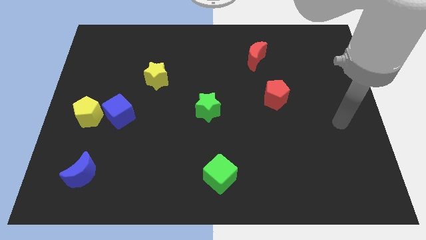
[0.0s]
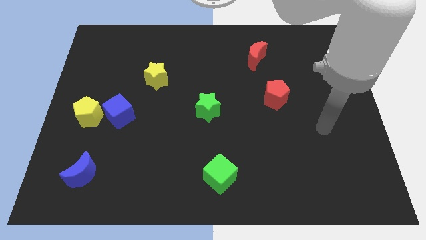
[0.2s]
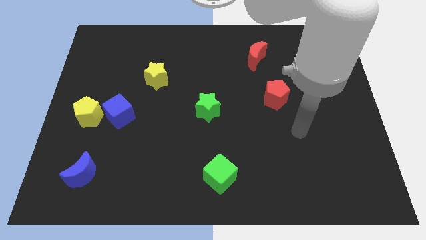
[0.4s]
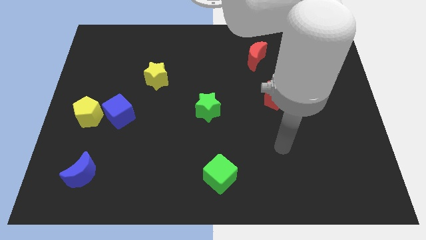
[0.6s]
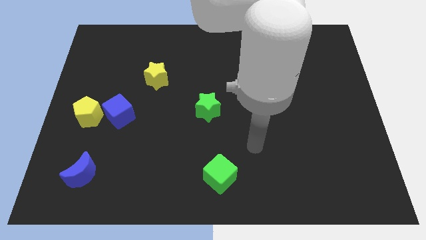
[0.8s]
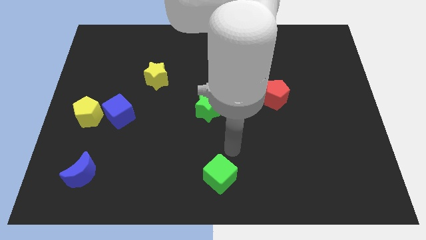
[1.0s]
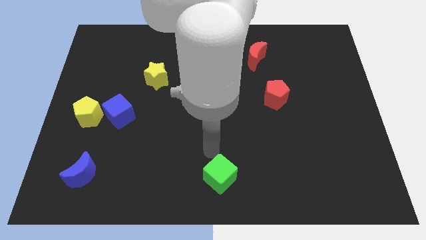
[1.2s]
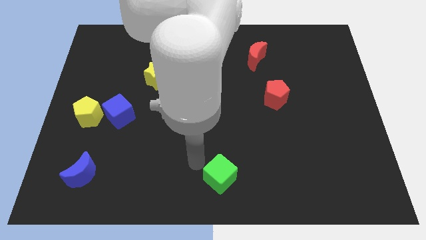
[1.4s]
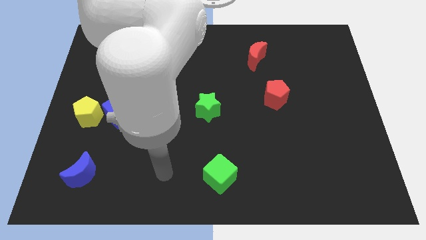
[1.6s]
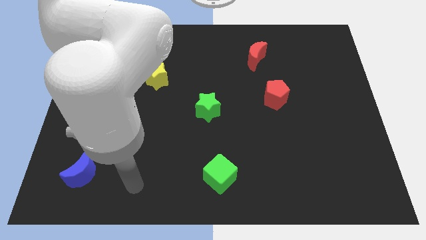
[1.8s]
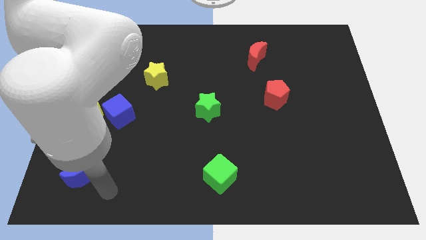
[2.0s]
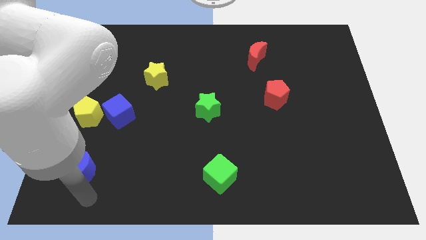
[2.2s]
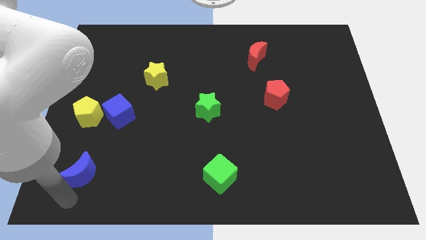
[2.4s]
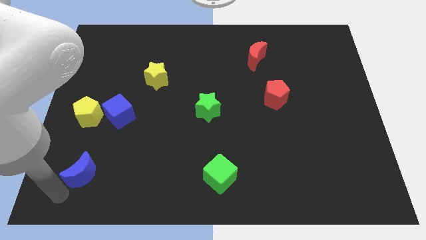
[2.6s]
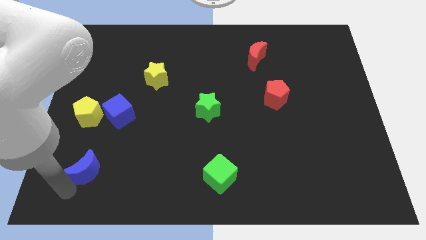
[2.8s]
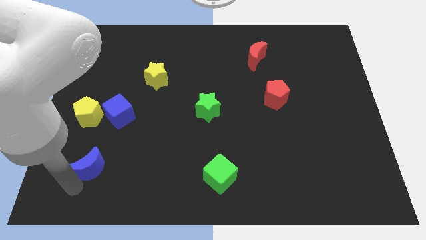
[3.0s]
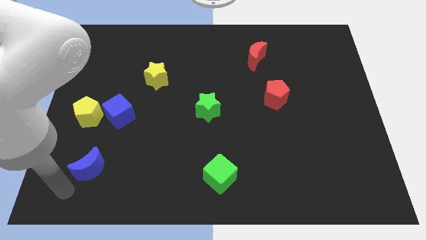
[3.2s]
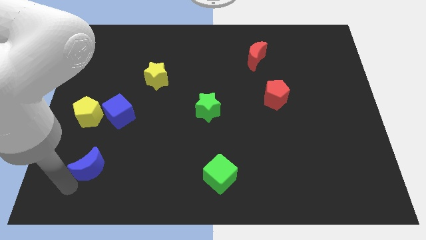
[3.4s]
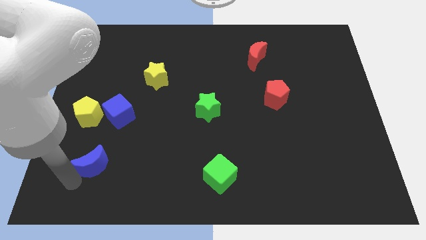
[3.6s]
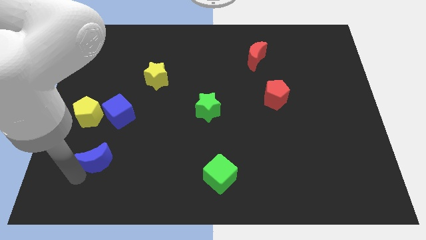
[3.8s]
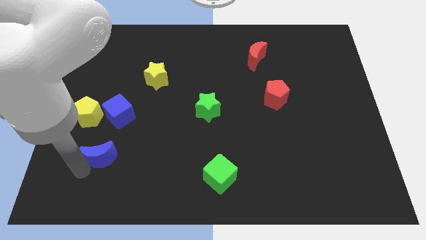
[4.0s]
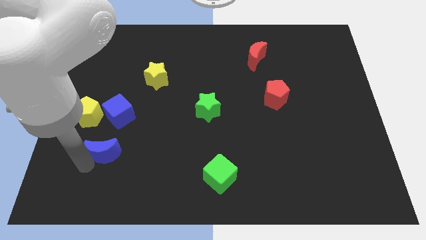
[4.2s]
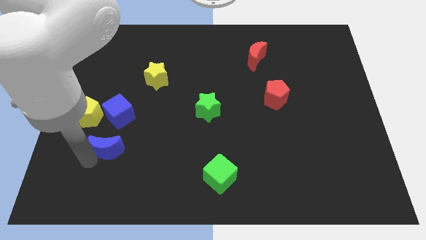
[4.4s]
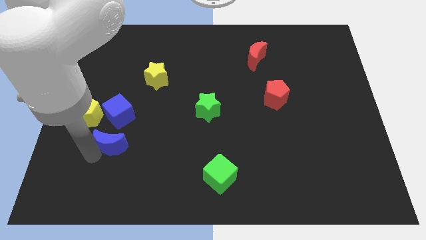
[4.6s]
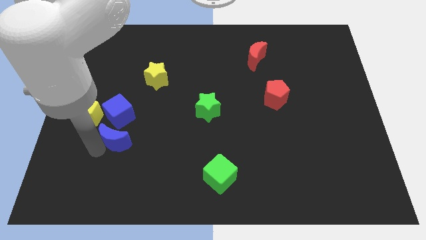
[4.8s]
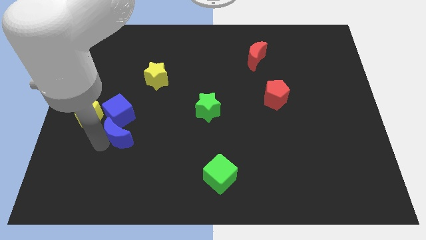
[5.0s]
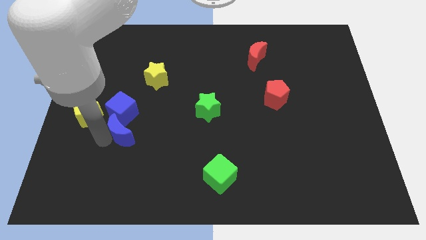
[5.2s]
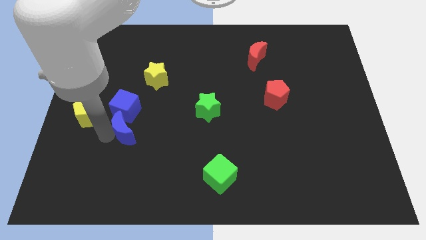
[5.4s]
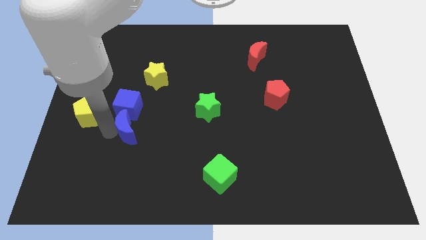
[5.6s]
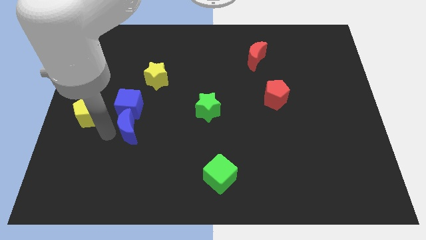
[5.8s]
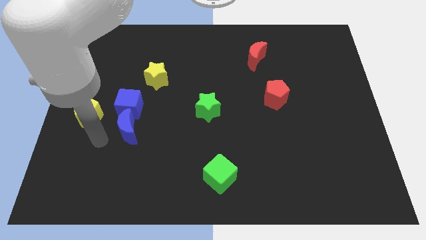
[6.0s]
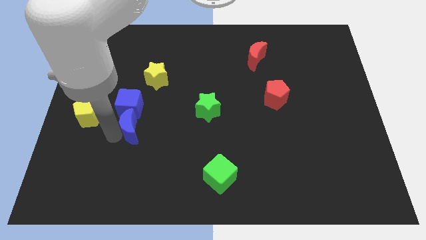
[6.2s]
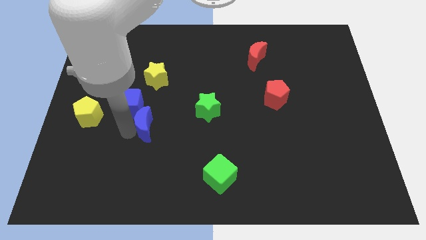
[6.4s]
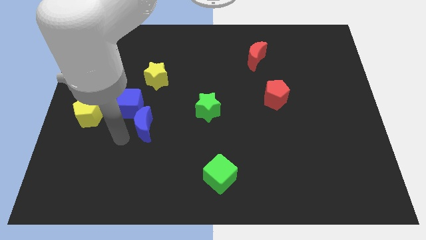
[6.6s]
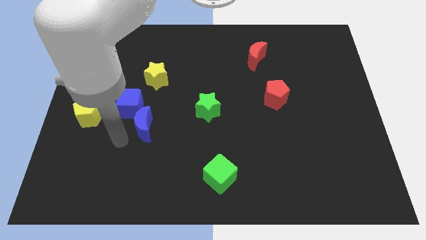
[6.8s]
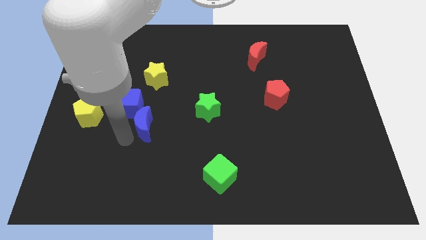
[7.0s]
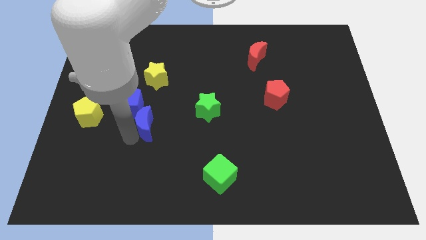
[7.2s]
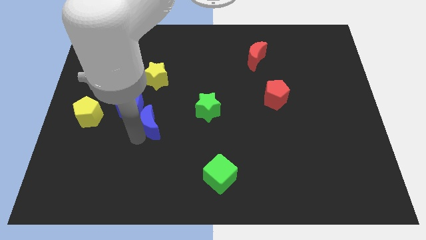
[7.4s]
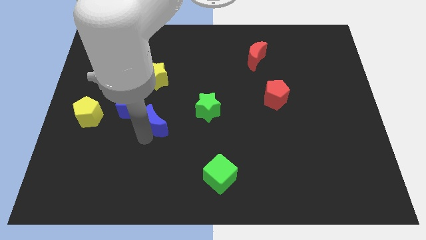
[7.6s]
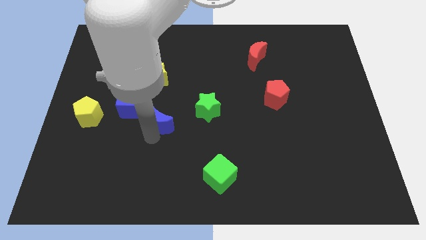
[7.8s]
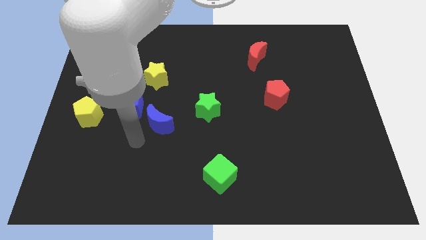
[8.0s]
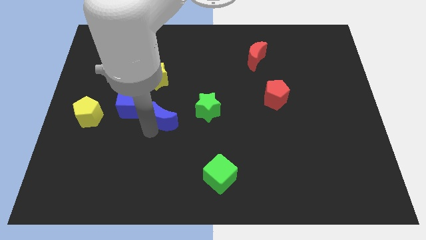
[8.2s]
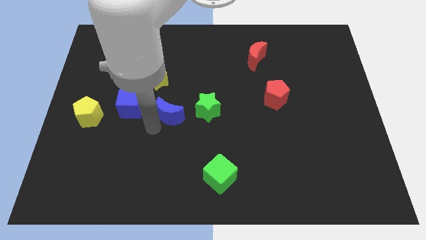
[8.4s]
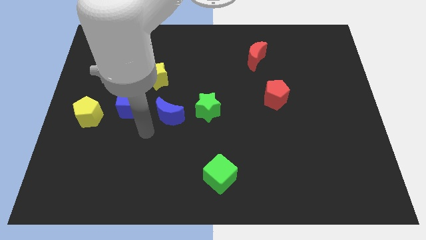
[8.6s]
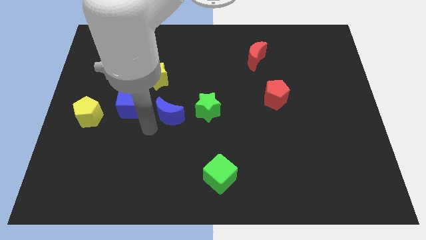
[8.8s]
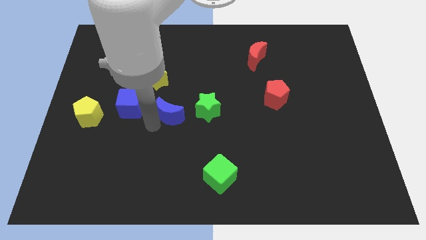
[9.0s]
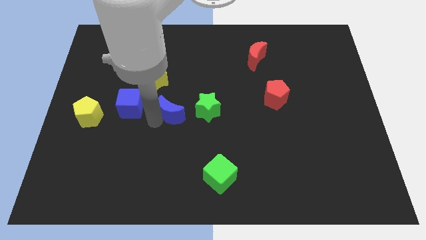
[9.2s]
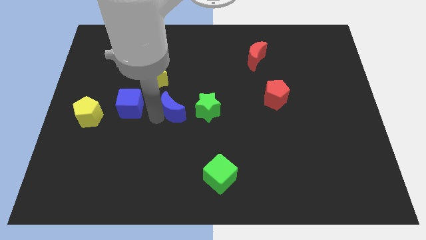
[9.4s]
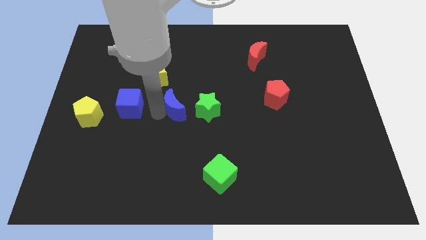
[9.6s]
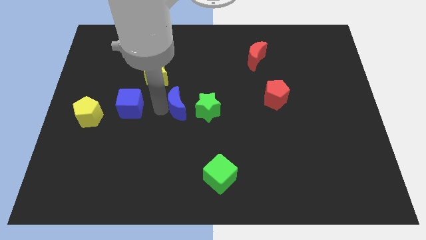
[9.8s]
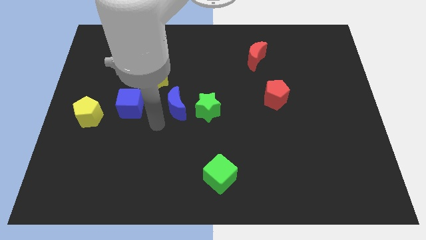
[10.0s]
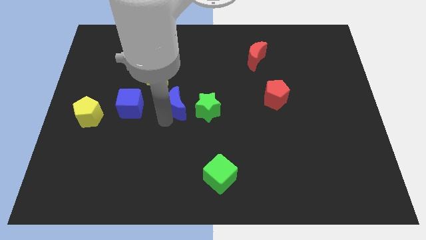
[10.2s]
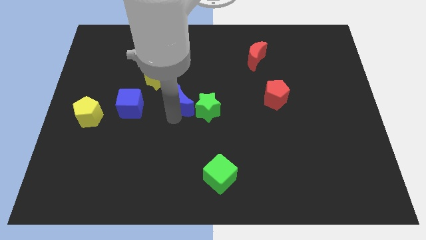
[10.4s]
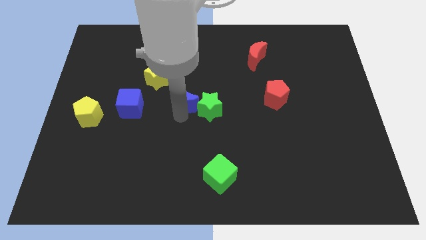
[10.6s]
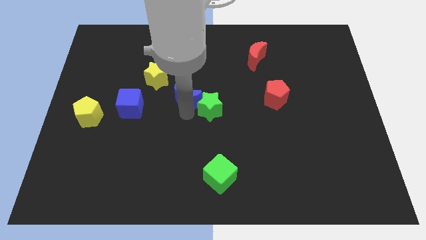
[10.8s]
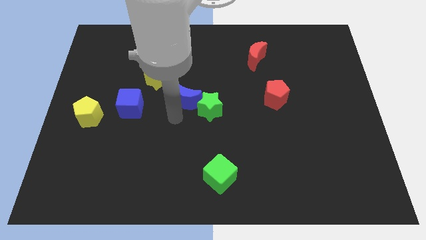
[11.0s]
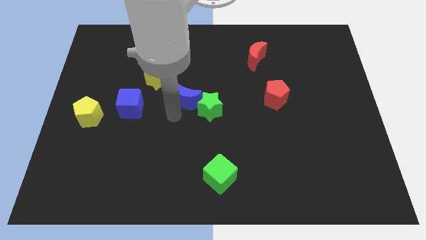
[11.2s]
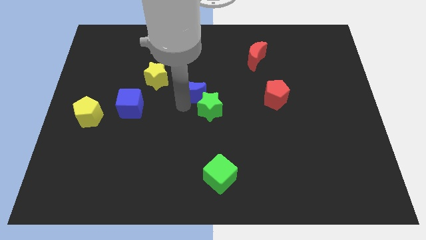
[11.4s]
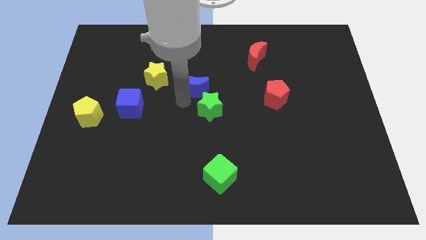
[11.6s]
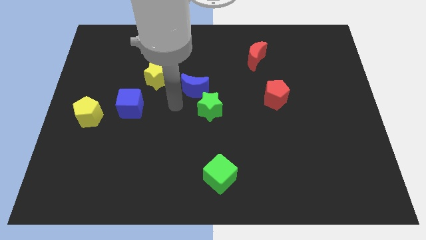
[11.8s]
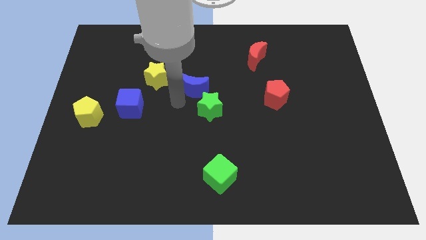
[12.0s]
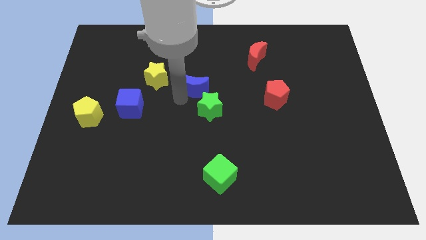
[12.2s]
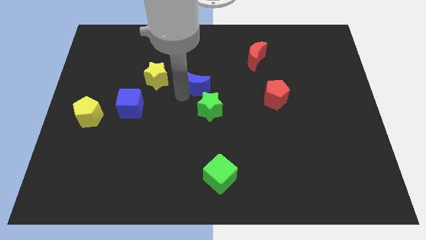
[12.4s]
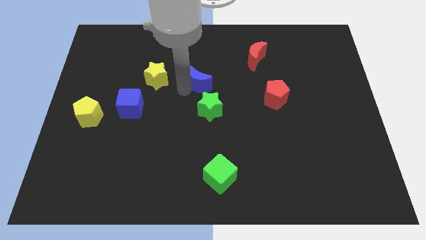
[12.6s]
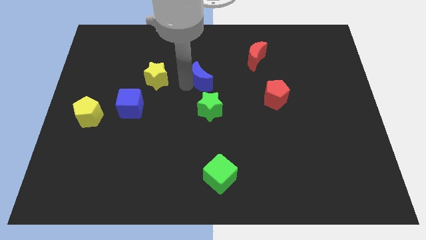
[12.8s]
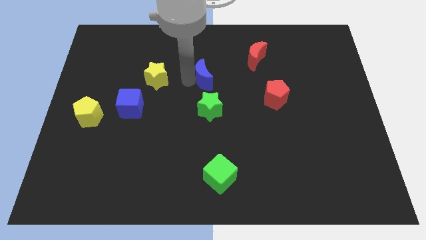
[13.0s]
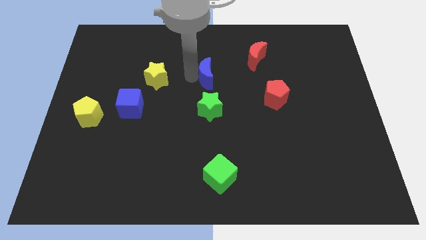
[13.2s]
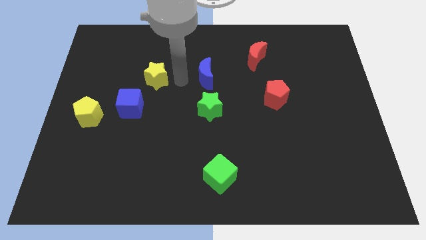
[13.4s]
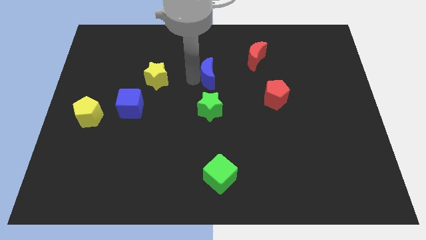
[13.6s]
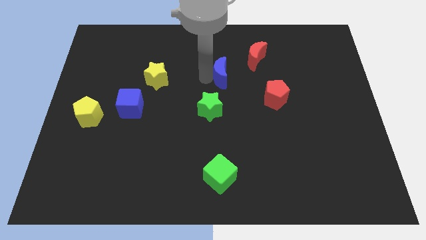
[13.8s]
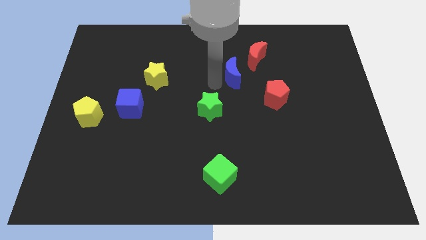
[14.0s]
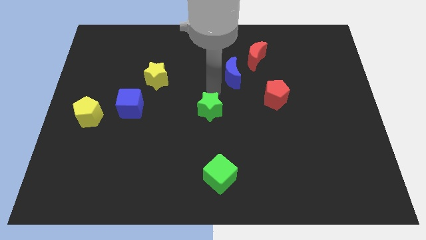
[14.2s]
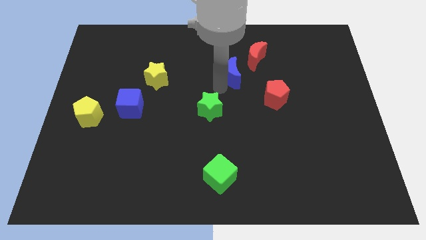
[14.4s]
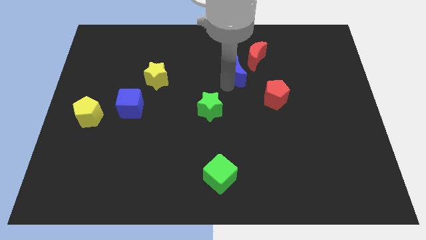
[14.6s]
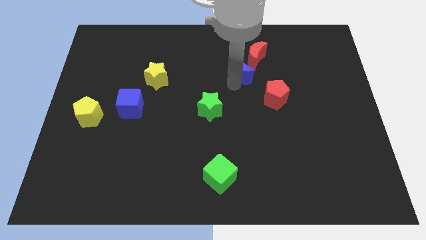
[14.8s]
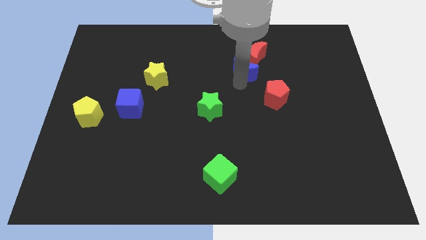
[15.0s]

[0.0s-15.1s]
move the blue moon towards the red moon
